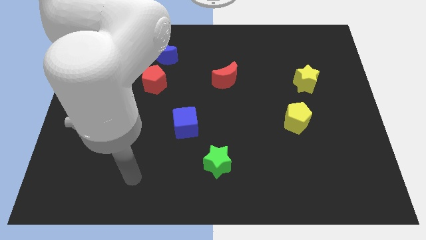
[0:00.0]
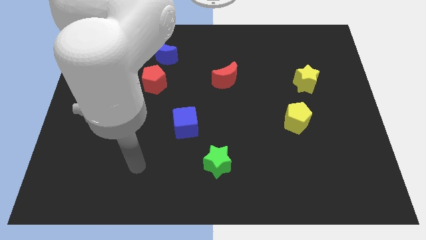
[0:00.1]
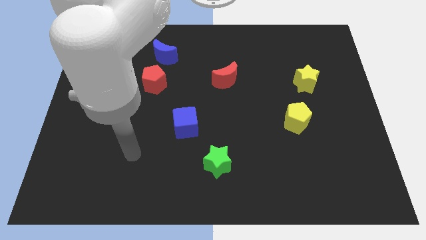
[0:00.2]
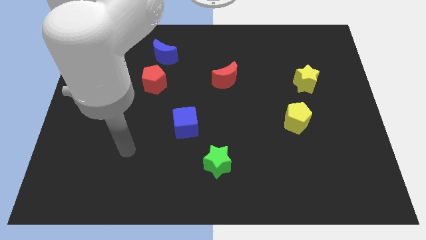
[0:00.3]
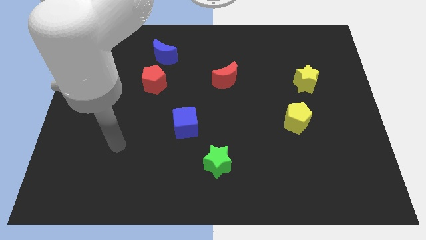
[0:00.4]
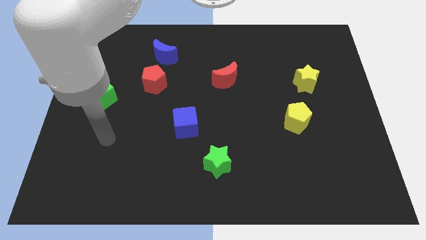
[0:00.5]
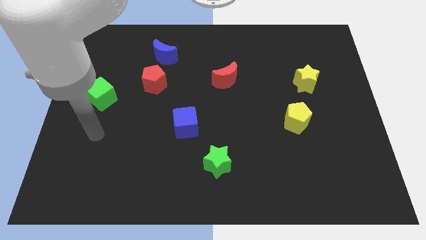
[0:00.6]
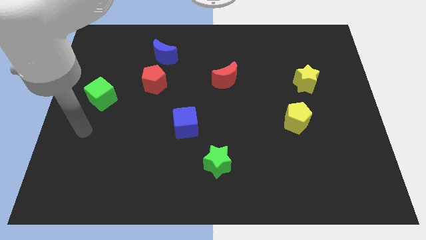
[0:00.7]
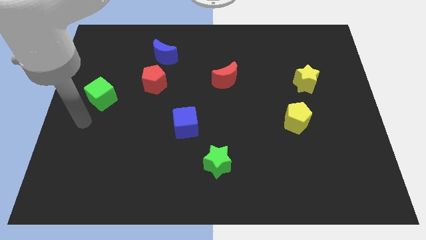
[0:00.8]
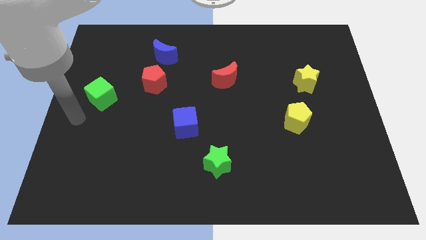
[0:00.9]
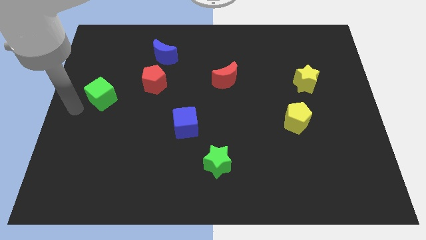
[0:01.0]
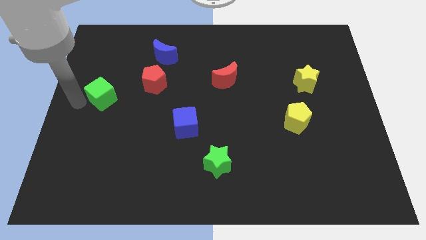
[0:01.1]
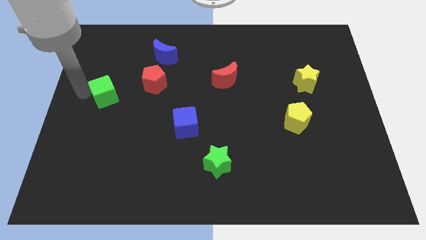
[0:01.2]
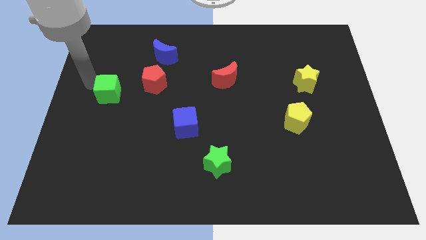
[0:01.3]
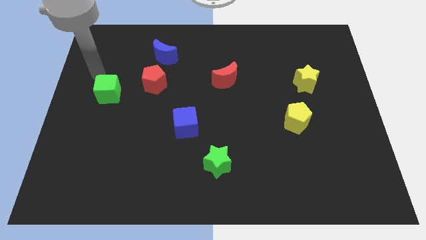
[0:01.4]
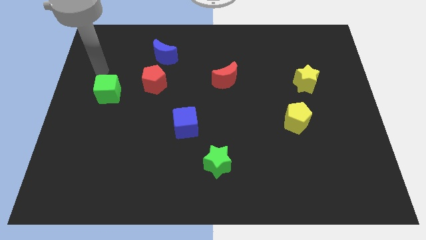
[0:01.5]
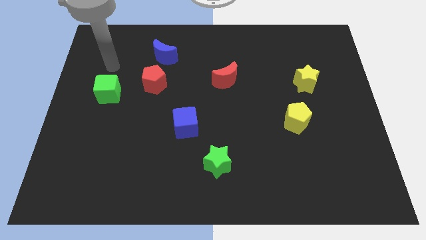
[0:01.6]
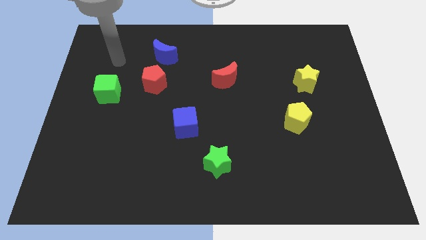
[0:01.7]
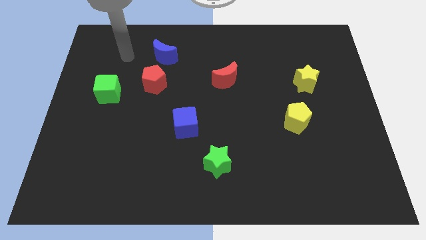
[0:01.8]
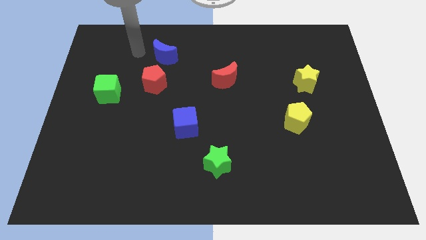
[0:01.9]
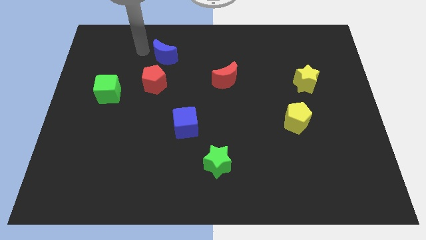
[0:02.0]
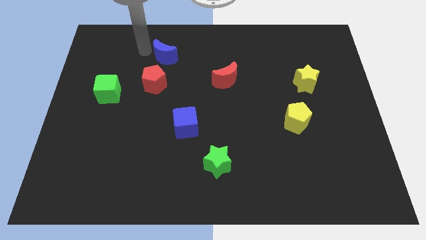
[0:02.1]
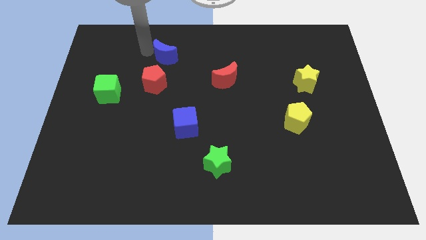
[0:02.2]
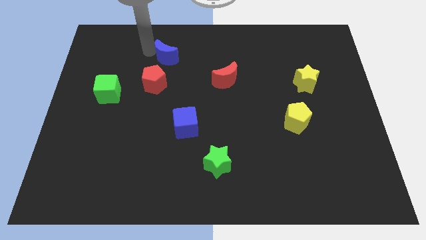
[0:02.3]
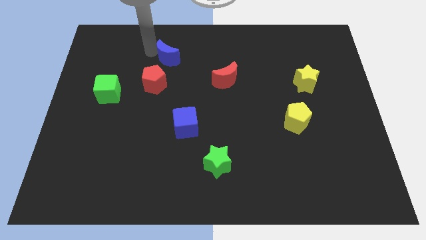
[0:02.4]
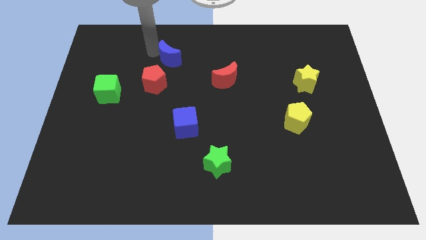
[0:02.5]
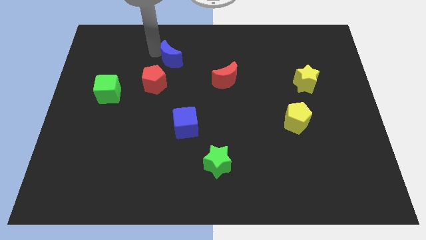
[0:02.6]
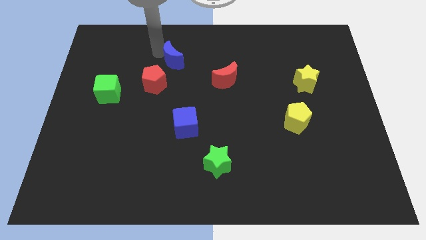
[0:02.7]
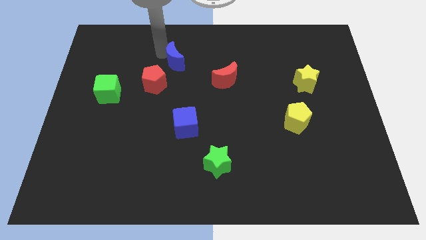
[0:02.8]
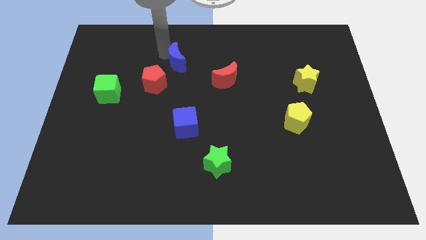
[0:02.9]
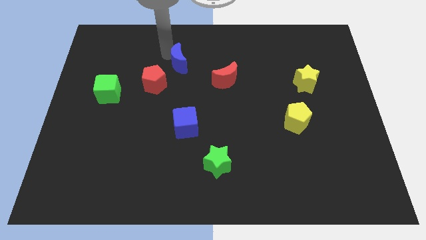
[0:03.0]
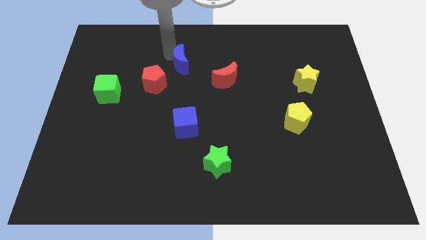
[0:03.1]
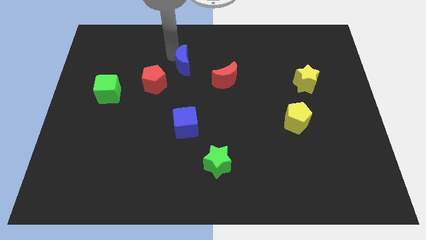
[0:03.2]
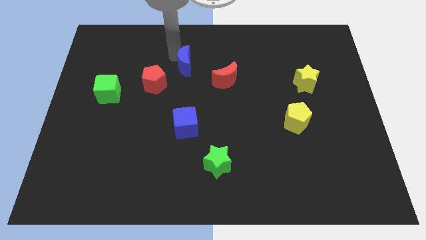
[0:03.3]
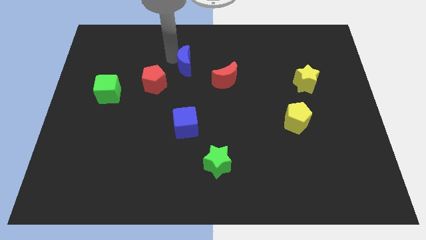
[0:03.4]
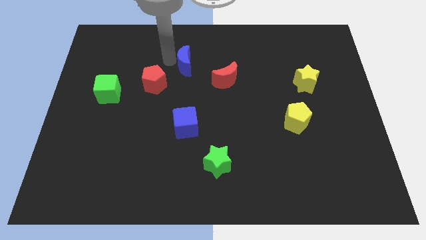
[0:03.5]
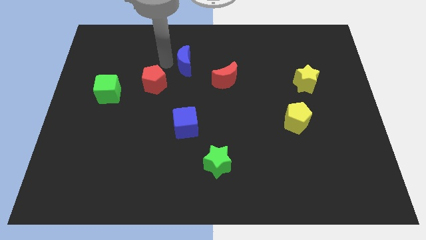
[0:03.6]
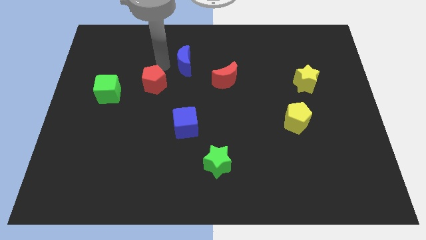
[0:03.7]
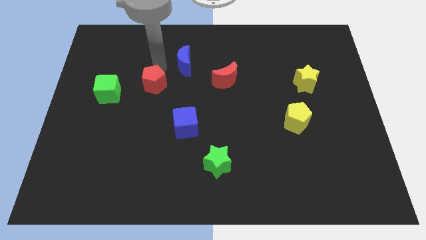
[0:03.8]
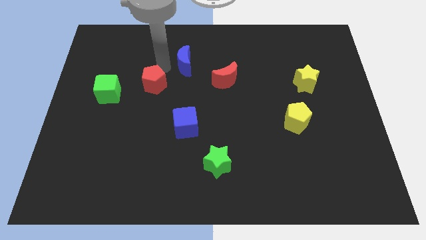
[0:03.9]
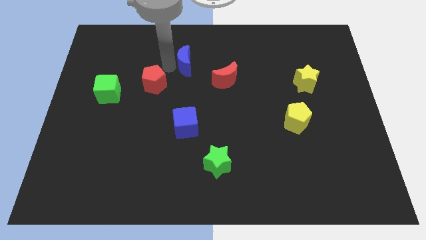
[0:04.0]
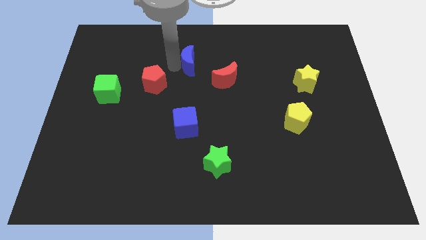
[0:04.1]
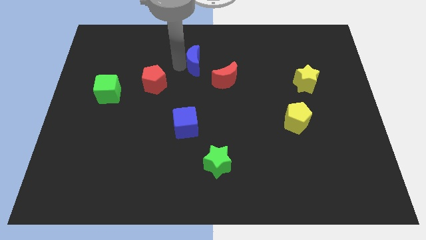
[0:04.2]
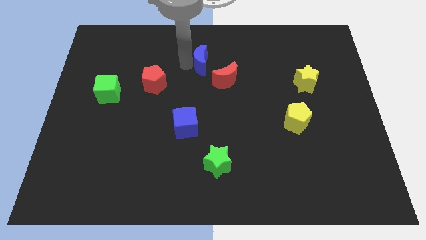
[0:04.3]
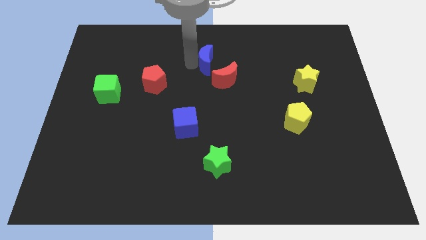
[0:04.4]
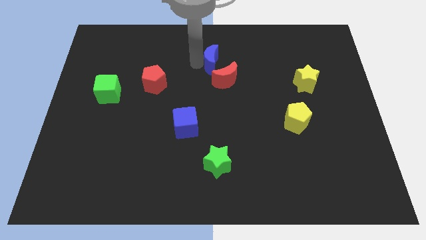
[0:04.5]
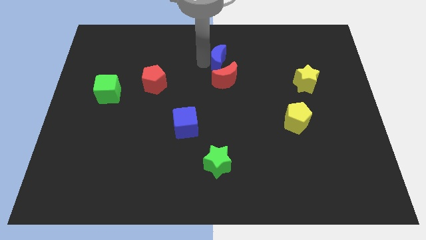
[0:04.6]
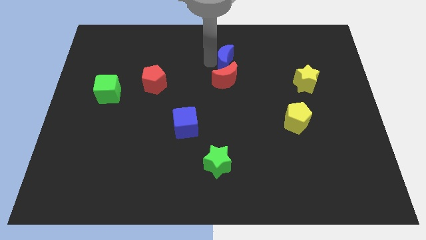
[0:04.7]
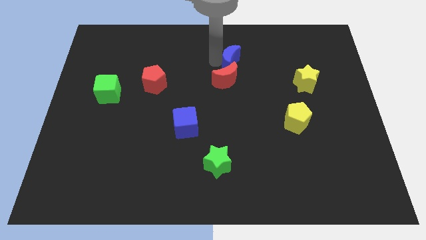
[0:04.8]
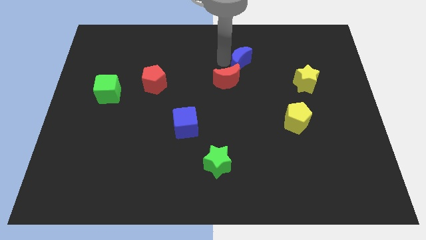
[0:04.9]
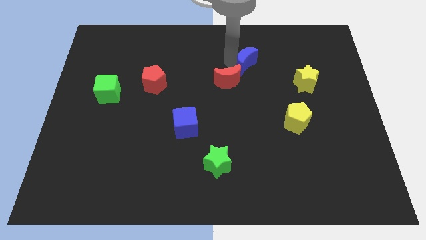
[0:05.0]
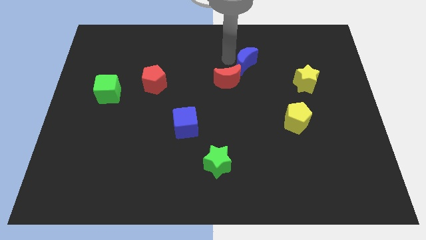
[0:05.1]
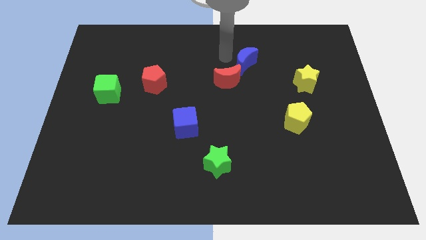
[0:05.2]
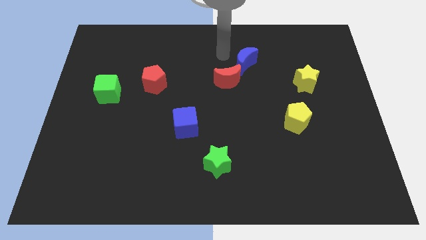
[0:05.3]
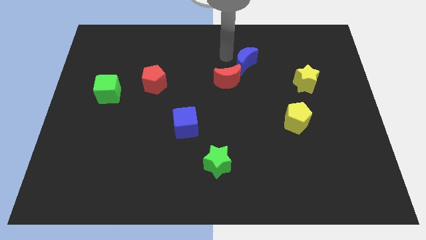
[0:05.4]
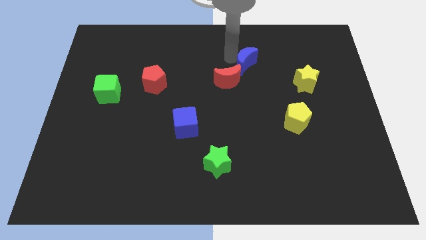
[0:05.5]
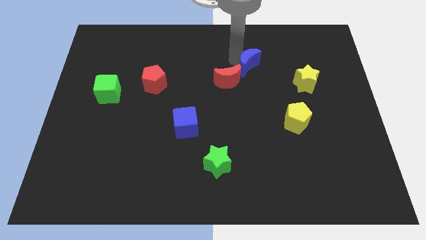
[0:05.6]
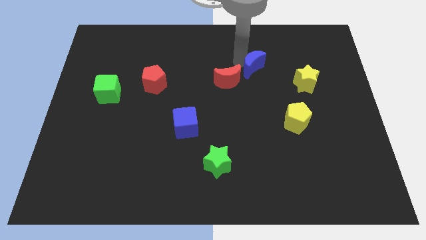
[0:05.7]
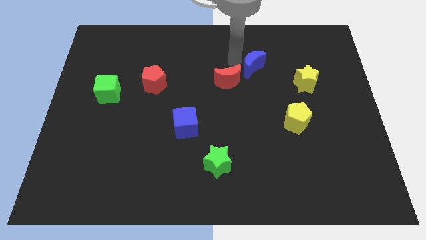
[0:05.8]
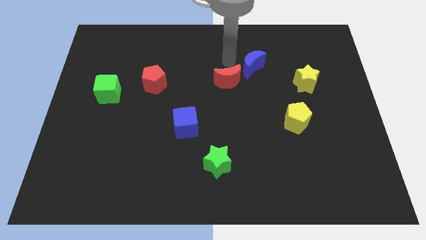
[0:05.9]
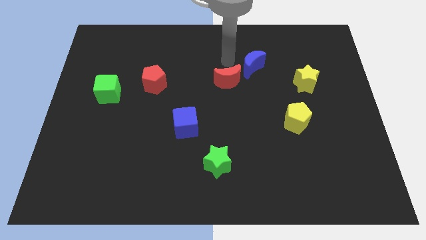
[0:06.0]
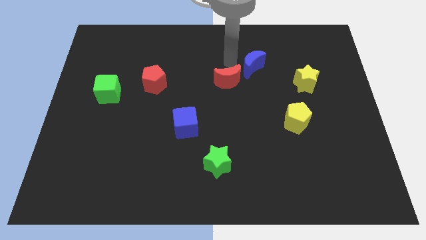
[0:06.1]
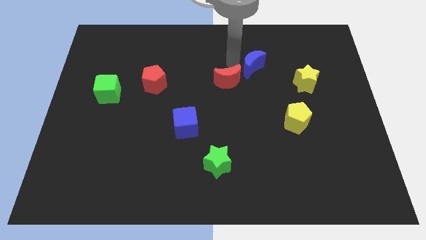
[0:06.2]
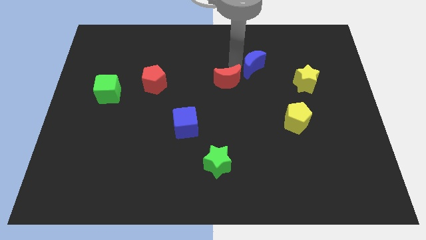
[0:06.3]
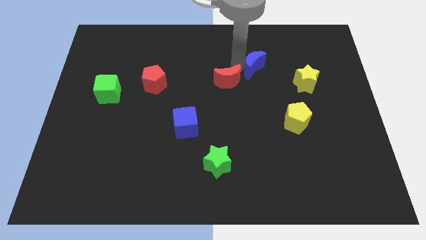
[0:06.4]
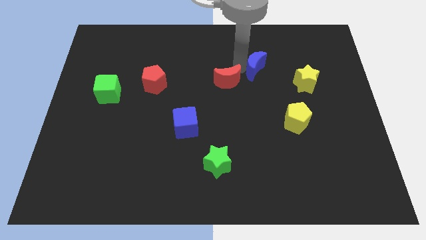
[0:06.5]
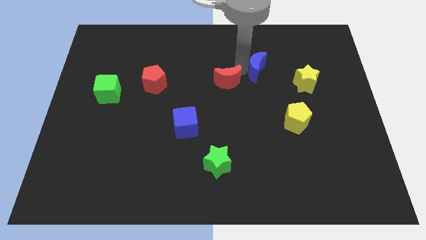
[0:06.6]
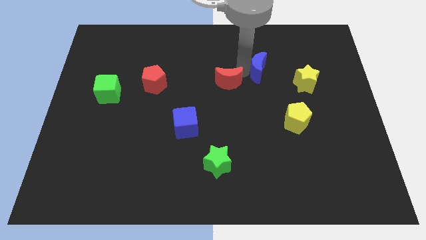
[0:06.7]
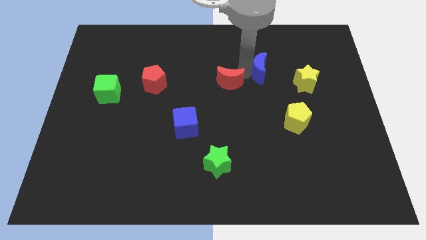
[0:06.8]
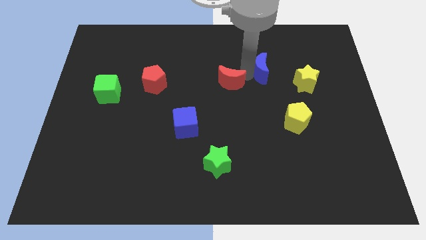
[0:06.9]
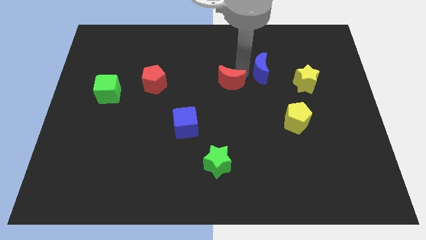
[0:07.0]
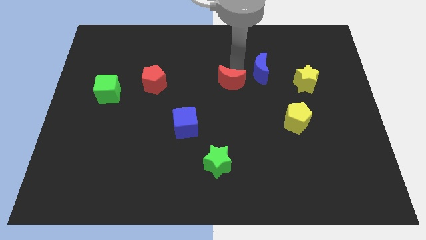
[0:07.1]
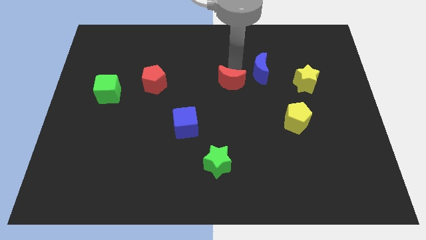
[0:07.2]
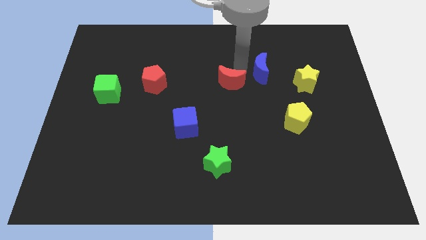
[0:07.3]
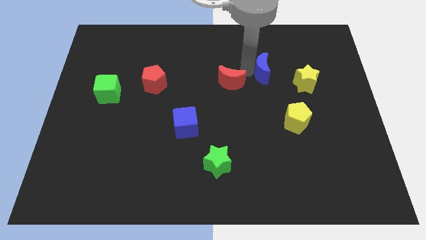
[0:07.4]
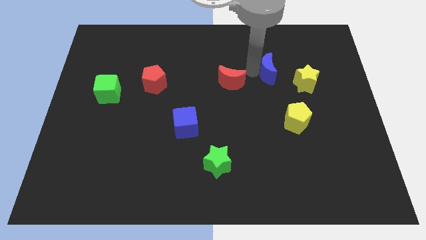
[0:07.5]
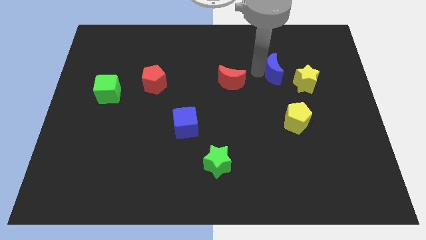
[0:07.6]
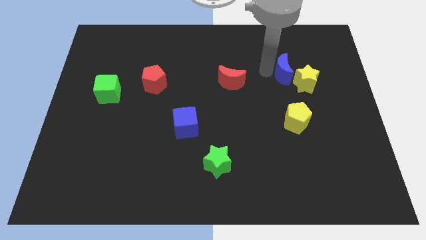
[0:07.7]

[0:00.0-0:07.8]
put the blue moon next to the yellow star
